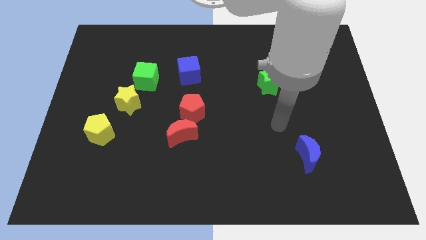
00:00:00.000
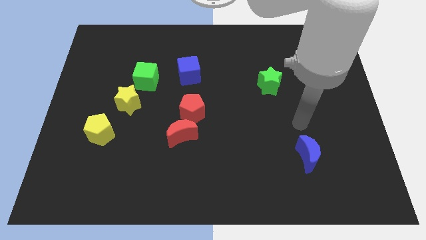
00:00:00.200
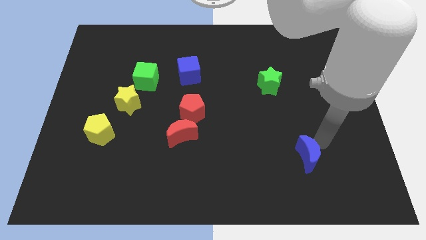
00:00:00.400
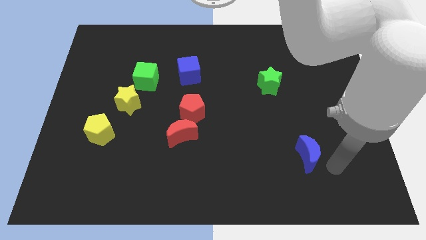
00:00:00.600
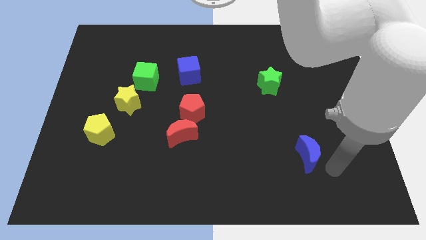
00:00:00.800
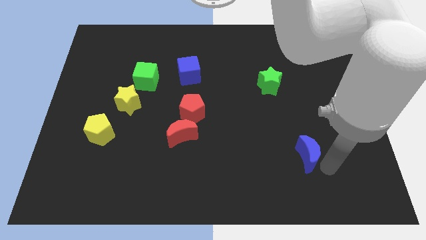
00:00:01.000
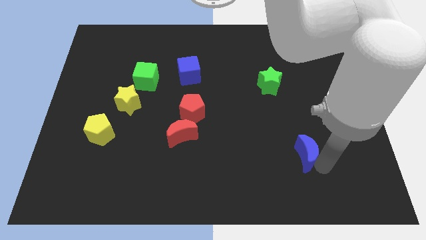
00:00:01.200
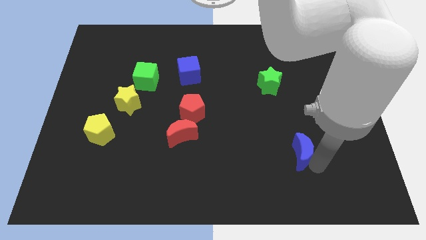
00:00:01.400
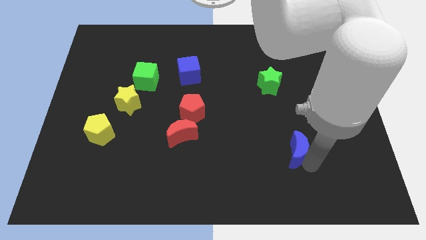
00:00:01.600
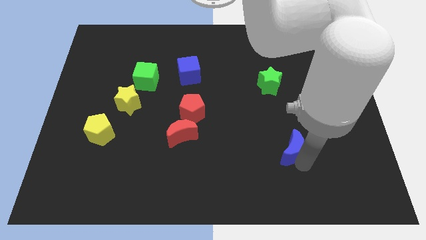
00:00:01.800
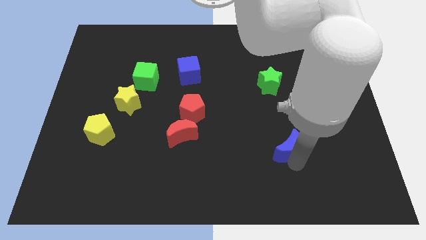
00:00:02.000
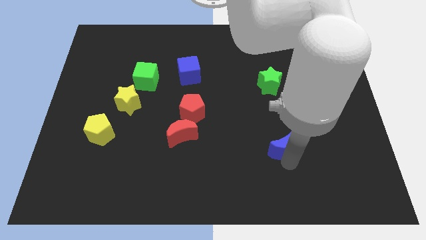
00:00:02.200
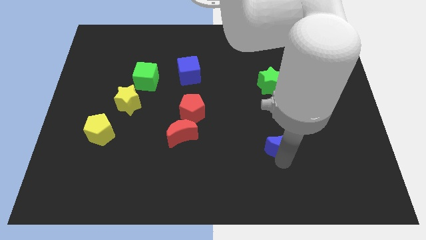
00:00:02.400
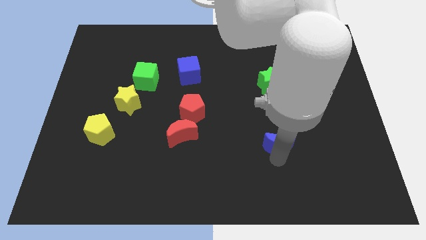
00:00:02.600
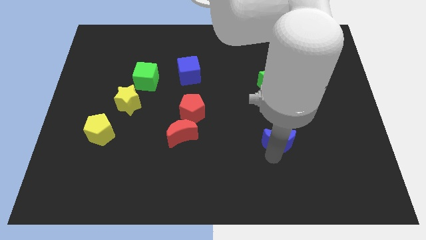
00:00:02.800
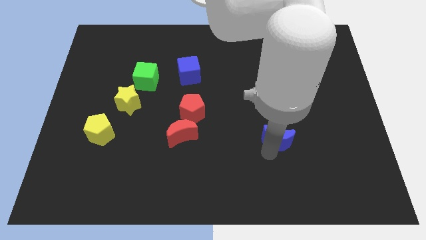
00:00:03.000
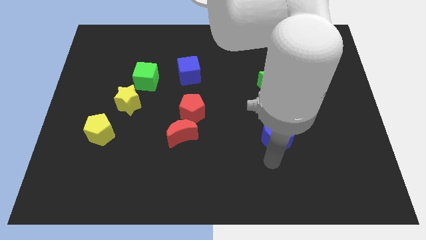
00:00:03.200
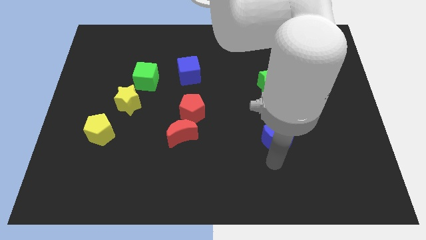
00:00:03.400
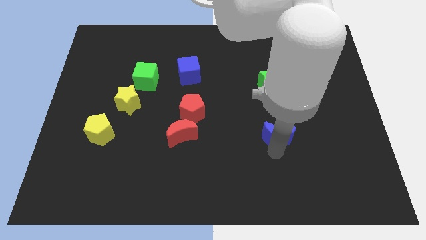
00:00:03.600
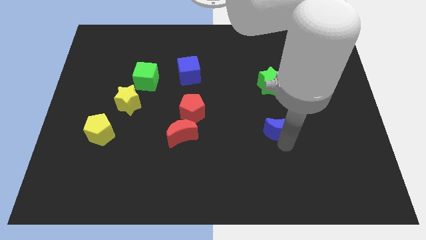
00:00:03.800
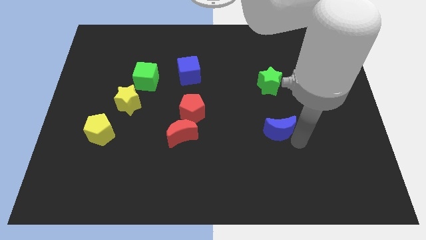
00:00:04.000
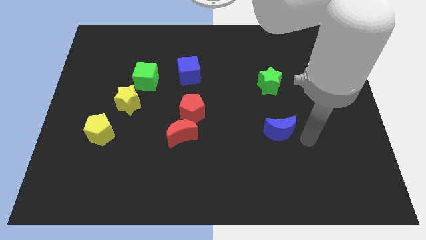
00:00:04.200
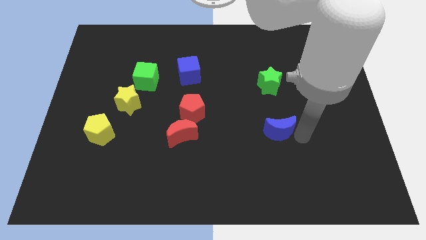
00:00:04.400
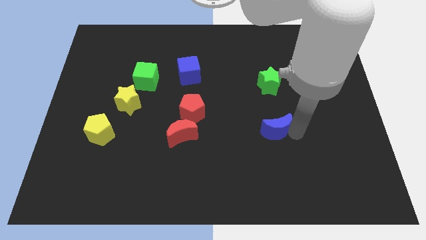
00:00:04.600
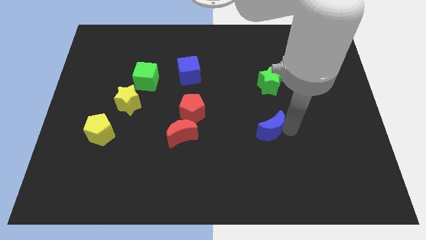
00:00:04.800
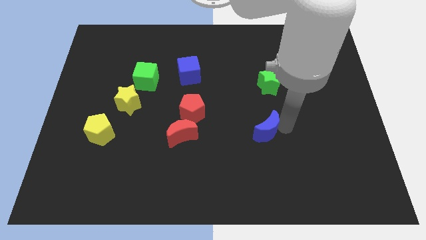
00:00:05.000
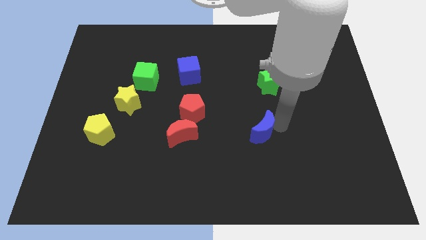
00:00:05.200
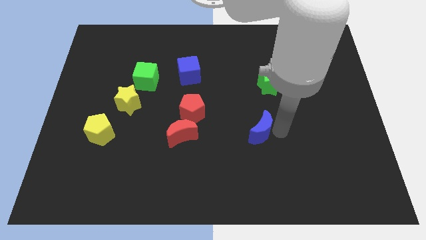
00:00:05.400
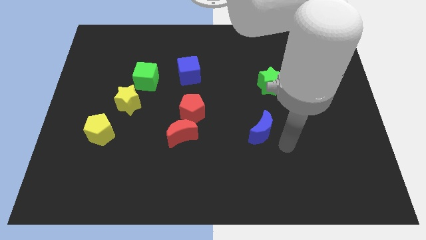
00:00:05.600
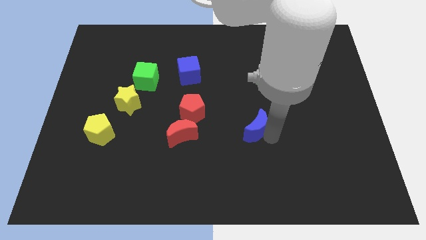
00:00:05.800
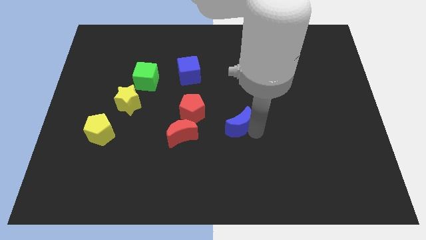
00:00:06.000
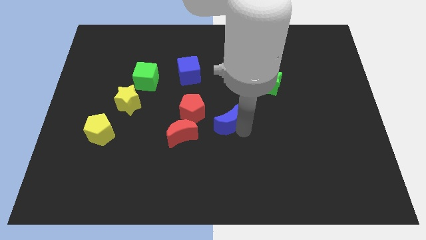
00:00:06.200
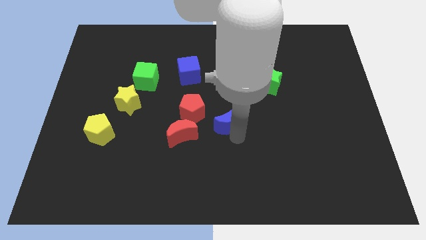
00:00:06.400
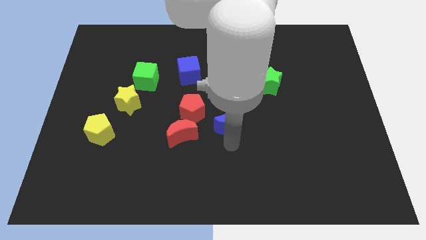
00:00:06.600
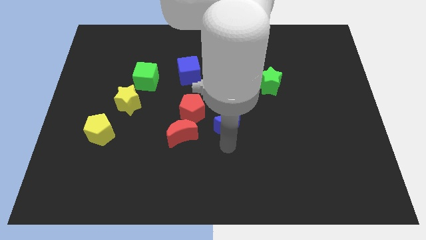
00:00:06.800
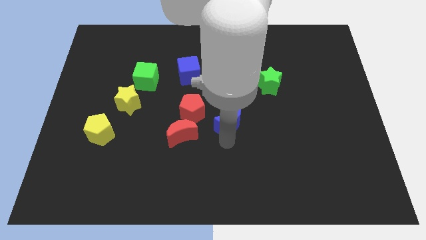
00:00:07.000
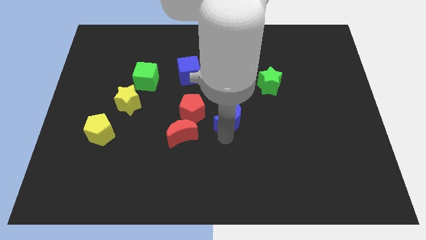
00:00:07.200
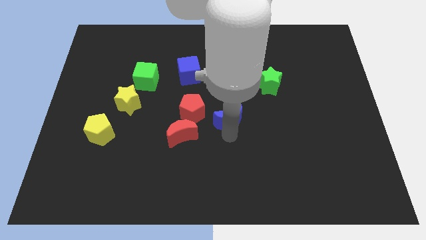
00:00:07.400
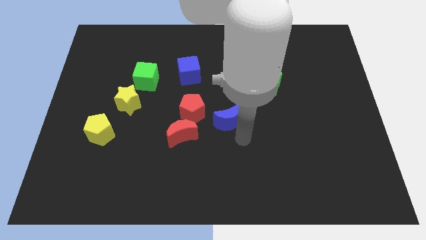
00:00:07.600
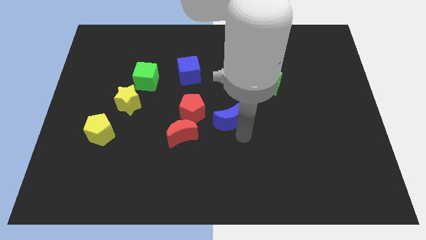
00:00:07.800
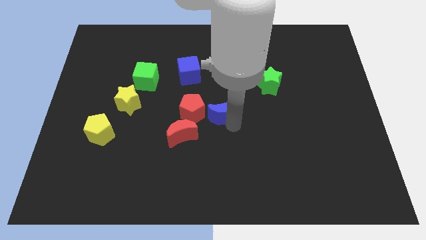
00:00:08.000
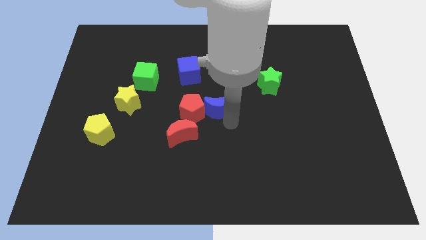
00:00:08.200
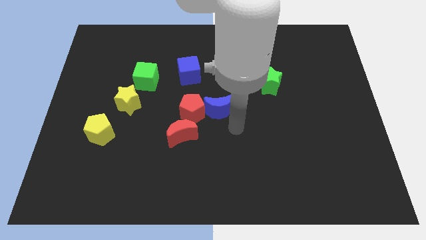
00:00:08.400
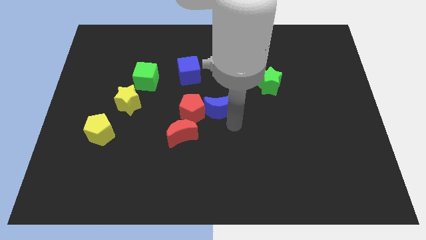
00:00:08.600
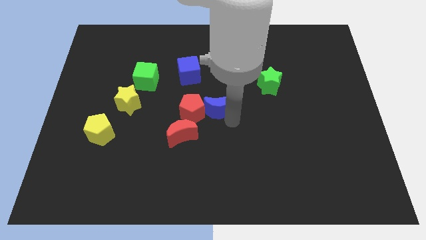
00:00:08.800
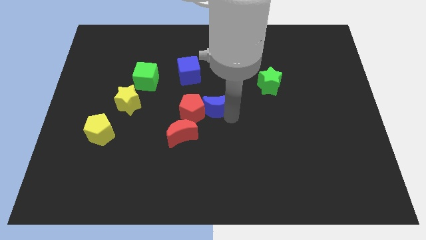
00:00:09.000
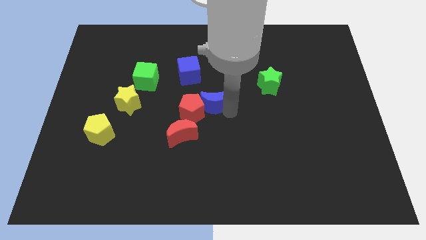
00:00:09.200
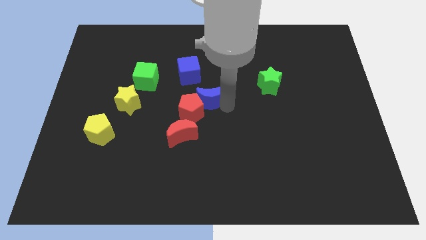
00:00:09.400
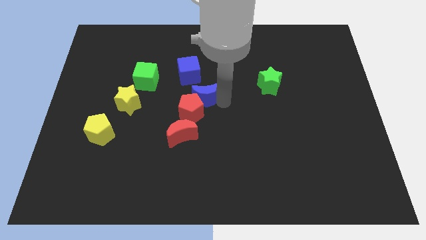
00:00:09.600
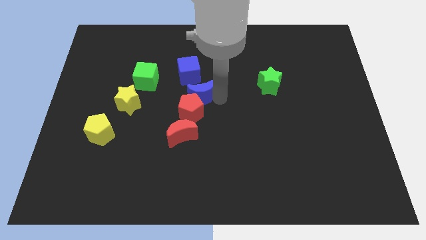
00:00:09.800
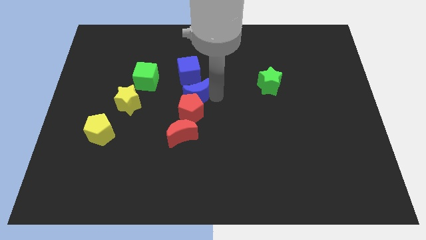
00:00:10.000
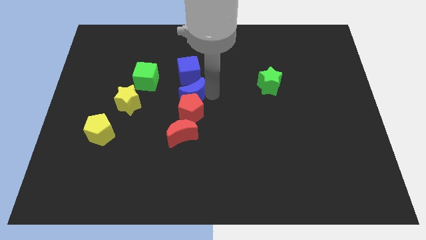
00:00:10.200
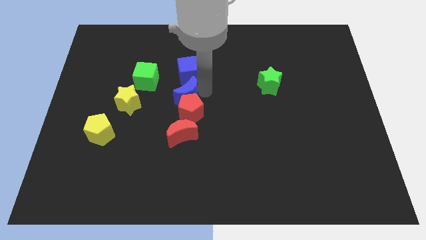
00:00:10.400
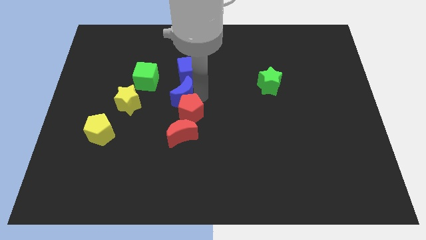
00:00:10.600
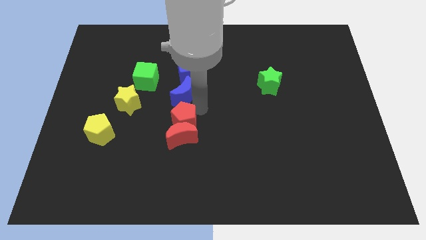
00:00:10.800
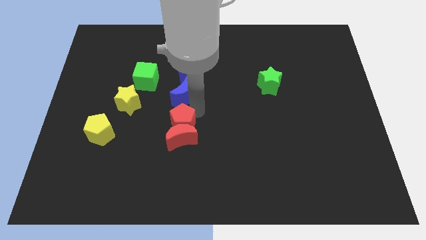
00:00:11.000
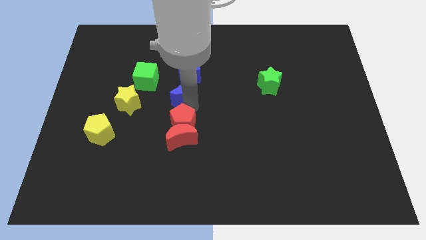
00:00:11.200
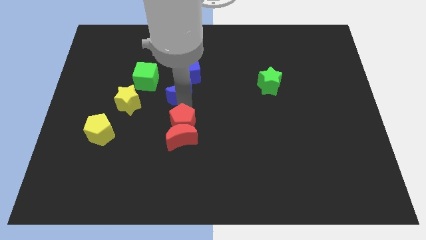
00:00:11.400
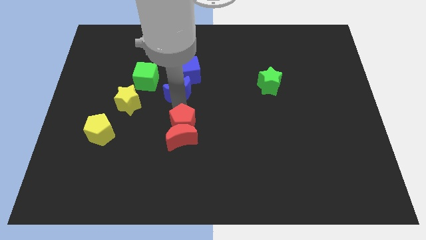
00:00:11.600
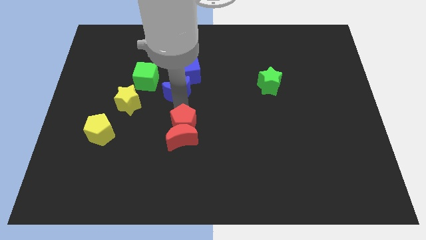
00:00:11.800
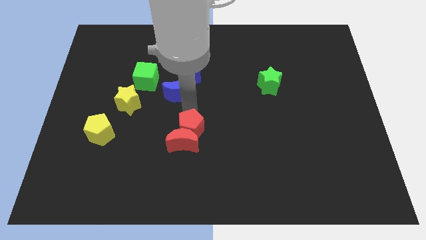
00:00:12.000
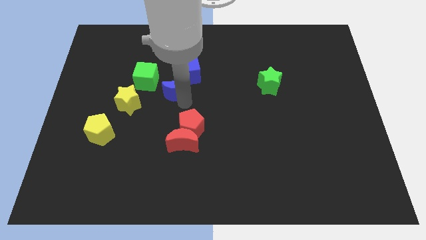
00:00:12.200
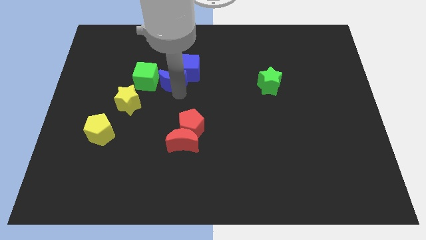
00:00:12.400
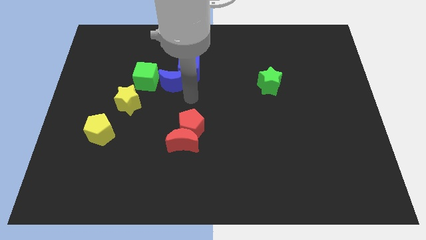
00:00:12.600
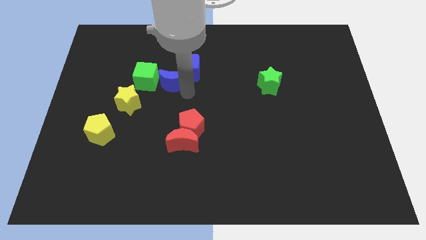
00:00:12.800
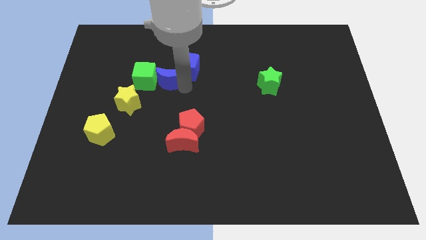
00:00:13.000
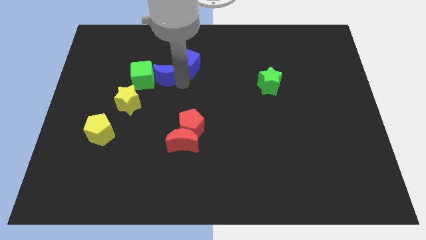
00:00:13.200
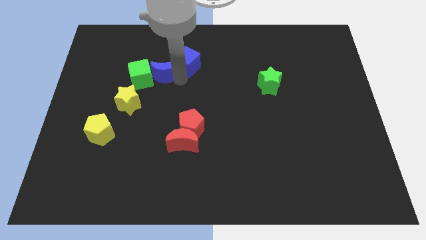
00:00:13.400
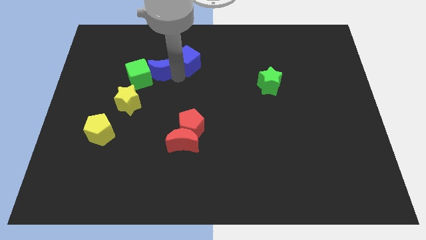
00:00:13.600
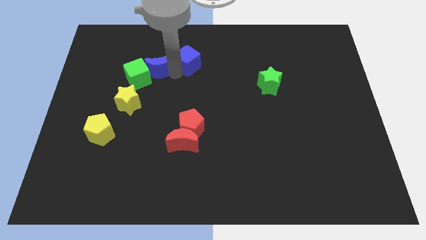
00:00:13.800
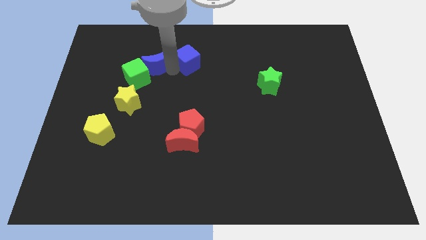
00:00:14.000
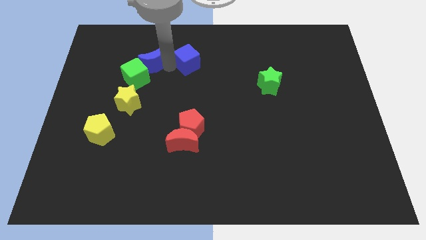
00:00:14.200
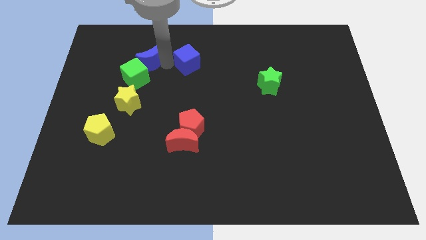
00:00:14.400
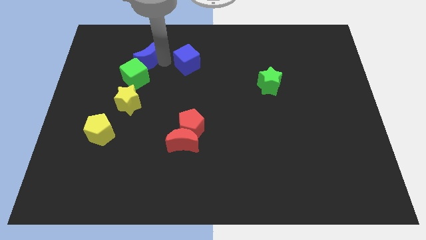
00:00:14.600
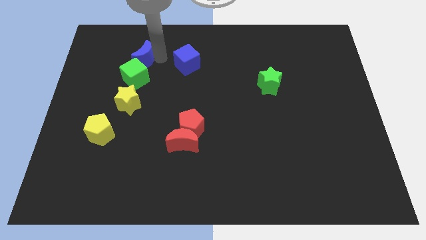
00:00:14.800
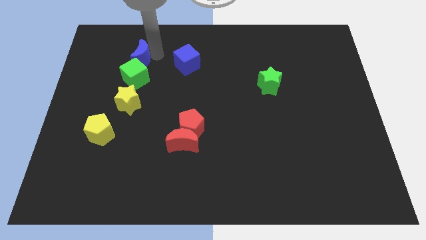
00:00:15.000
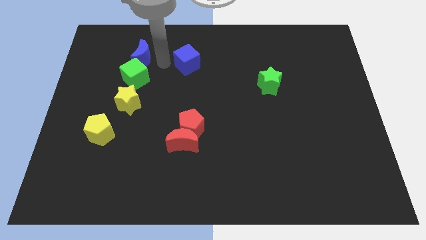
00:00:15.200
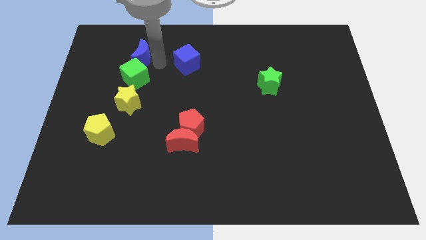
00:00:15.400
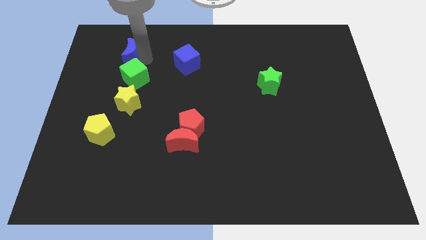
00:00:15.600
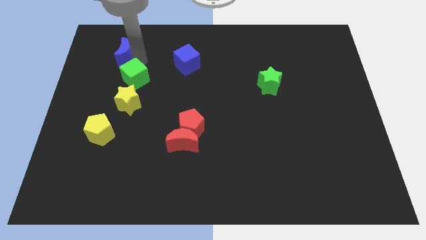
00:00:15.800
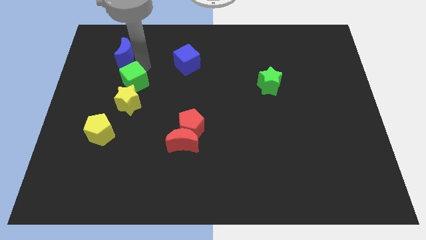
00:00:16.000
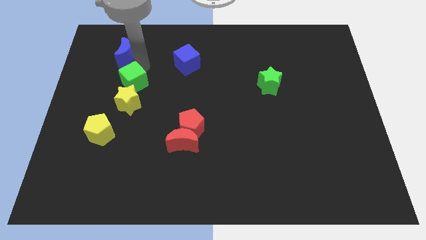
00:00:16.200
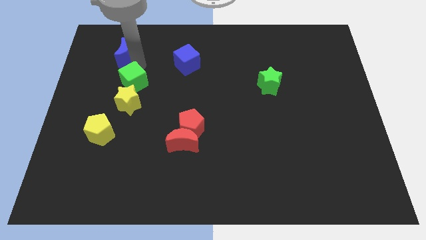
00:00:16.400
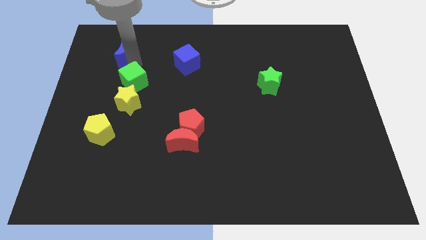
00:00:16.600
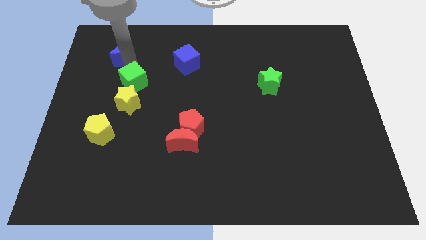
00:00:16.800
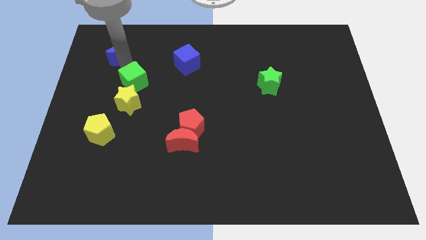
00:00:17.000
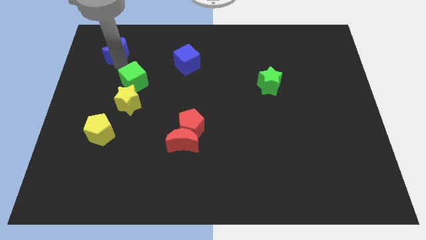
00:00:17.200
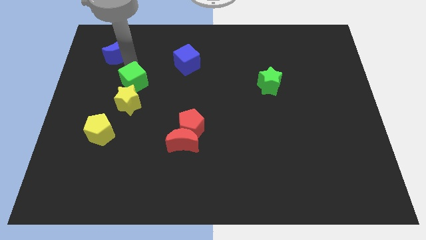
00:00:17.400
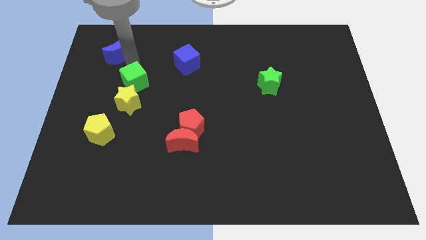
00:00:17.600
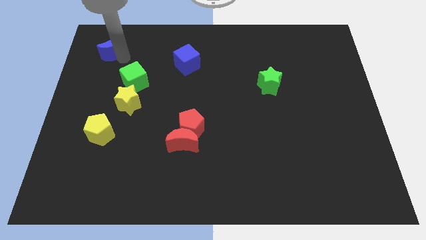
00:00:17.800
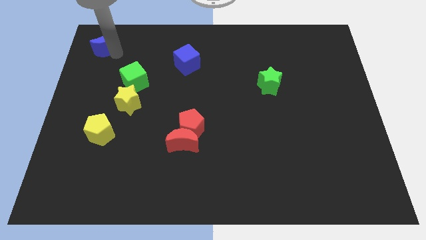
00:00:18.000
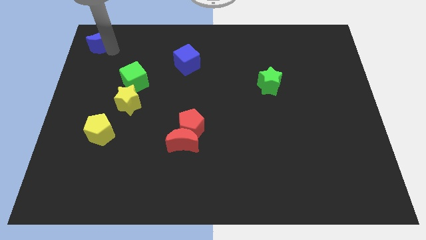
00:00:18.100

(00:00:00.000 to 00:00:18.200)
move the blue moon to the top left
